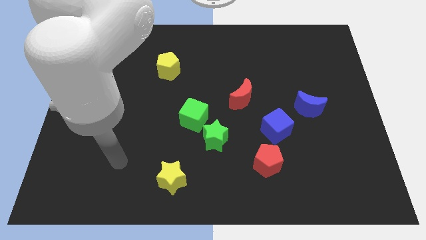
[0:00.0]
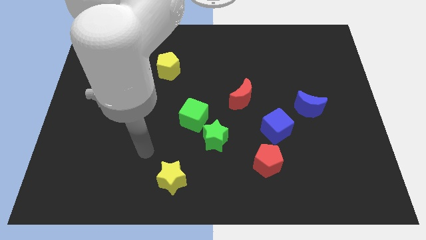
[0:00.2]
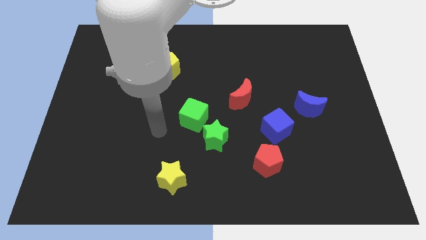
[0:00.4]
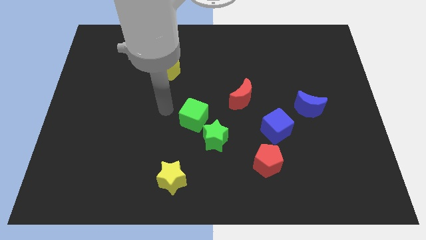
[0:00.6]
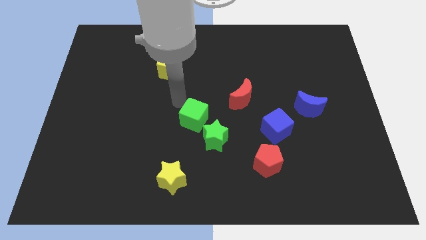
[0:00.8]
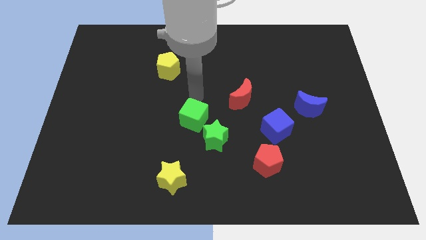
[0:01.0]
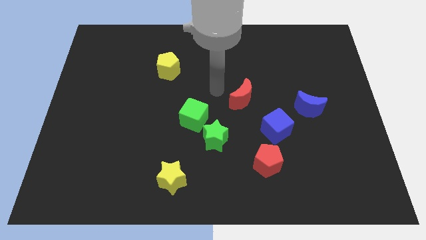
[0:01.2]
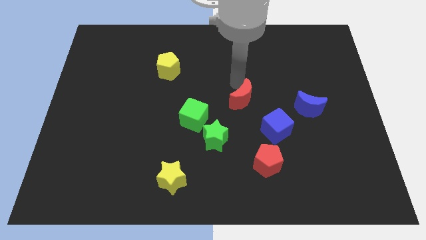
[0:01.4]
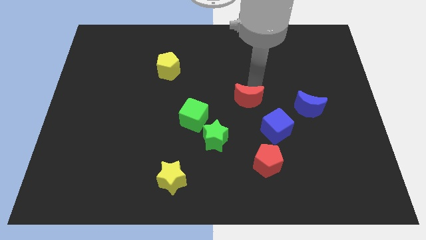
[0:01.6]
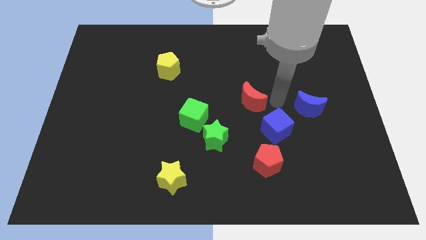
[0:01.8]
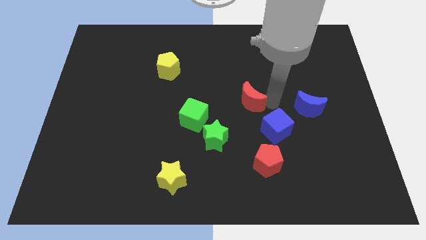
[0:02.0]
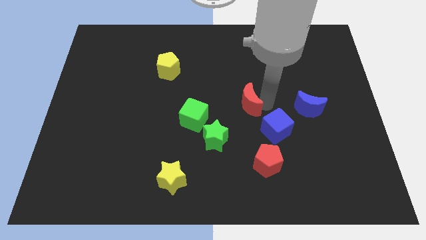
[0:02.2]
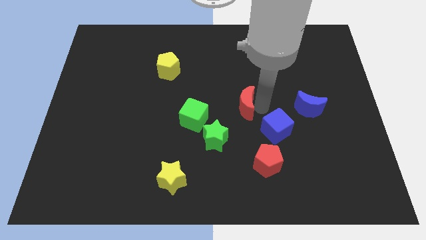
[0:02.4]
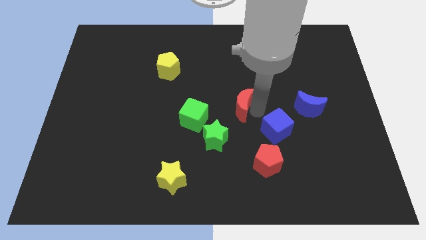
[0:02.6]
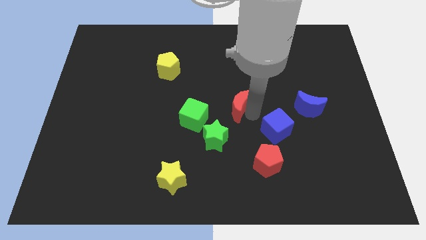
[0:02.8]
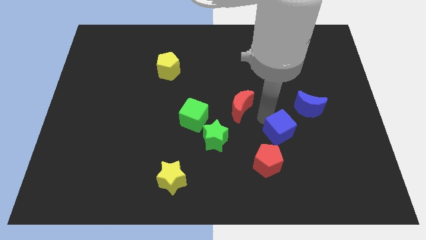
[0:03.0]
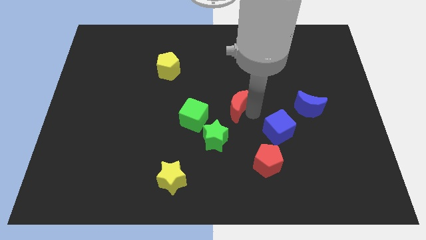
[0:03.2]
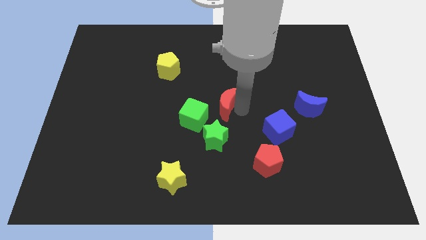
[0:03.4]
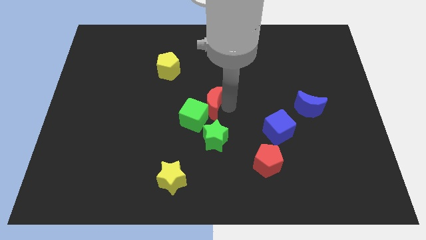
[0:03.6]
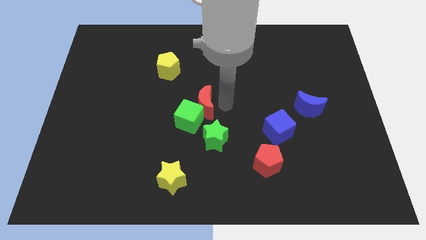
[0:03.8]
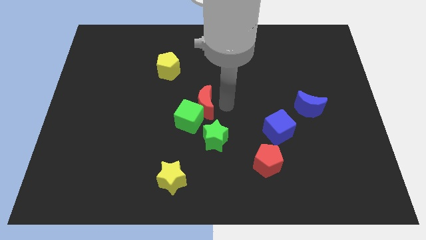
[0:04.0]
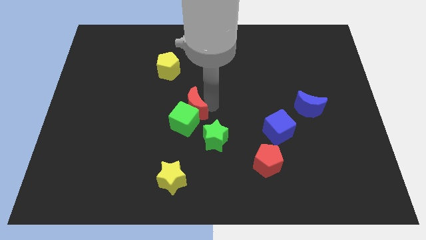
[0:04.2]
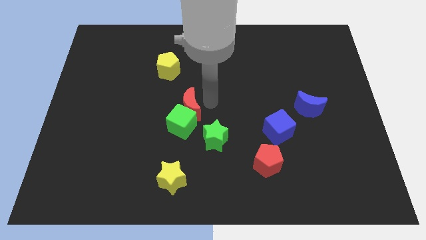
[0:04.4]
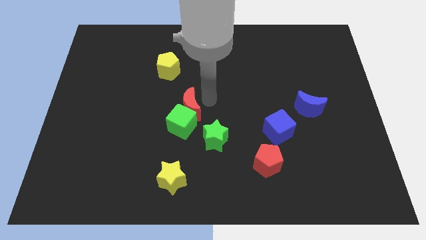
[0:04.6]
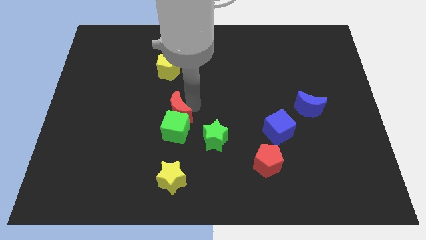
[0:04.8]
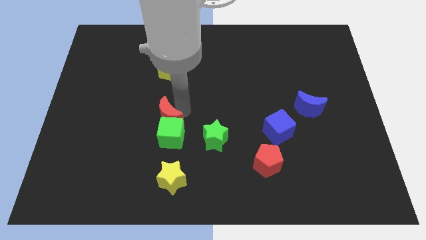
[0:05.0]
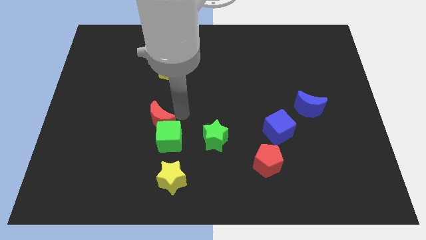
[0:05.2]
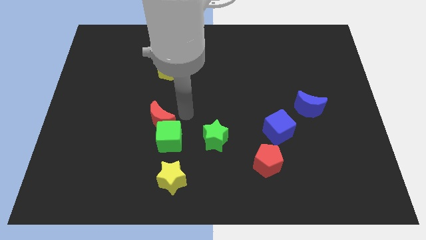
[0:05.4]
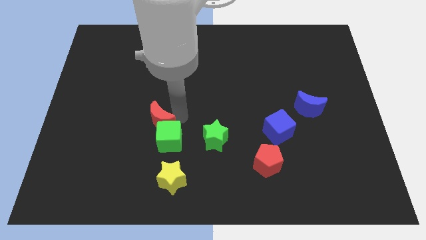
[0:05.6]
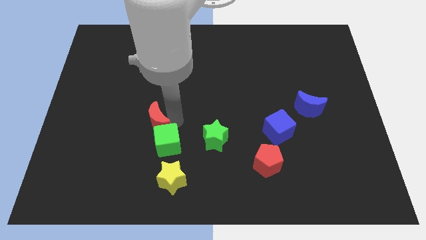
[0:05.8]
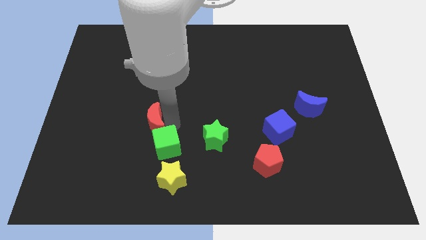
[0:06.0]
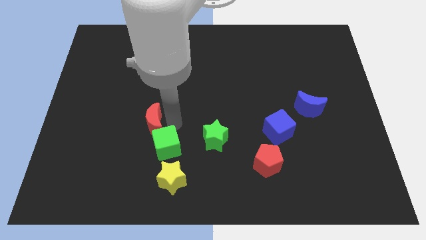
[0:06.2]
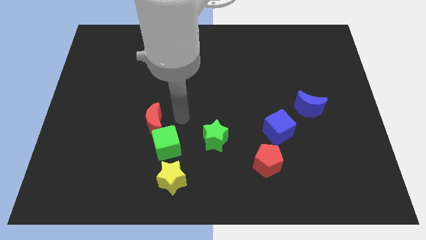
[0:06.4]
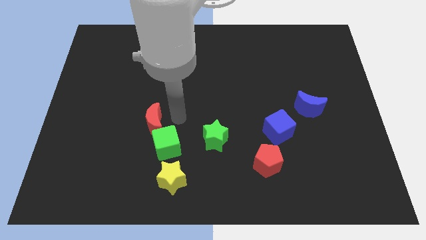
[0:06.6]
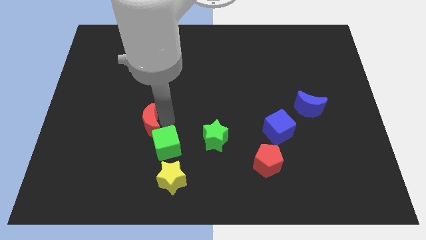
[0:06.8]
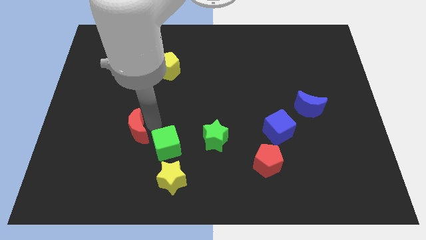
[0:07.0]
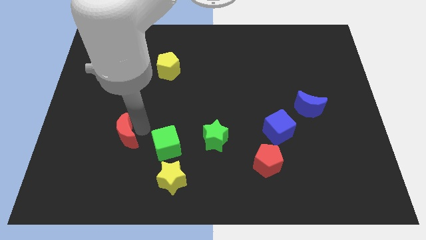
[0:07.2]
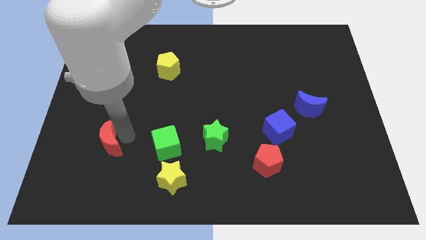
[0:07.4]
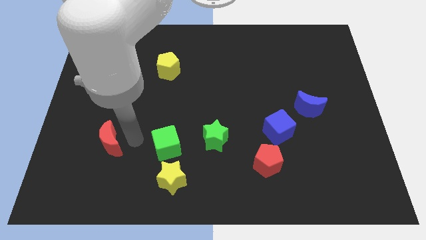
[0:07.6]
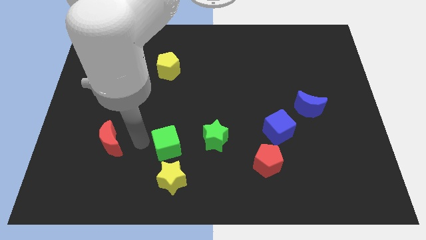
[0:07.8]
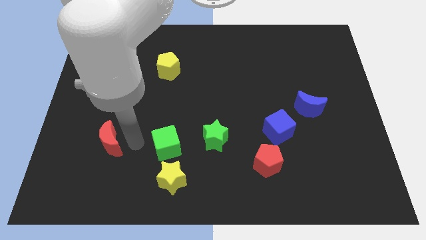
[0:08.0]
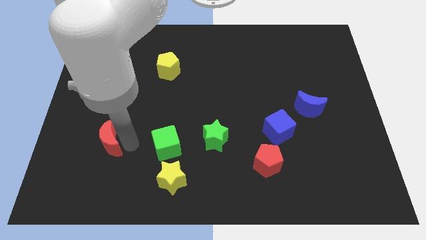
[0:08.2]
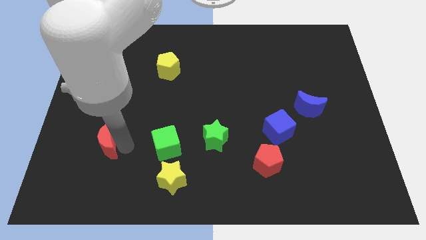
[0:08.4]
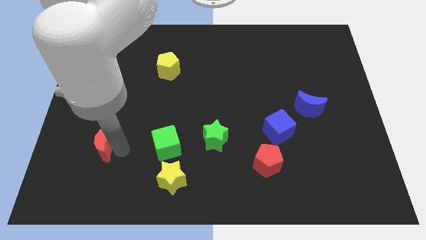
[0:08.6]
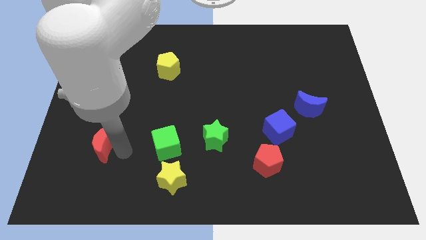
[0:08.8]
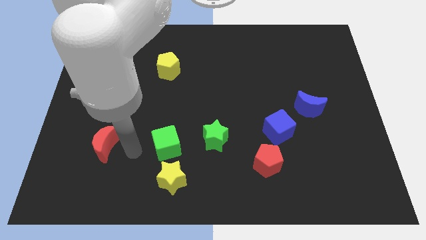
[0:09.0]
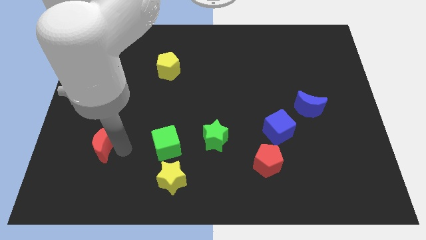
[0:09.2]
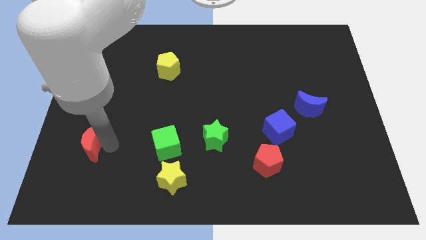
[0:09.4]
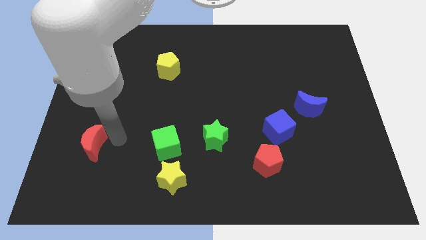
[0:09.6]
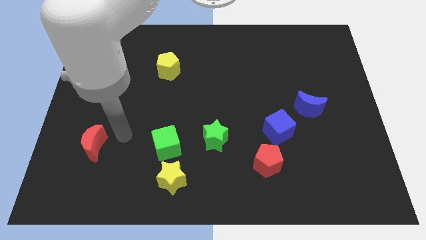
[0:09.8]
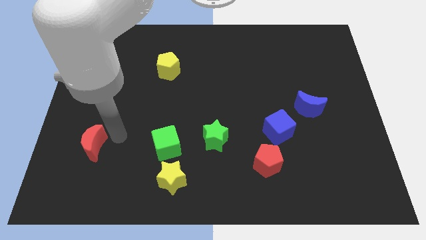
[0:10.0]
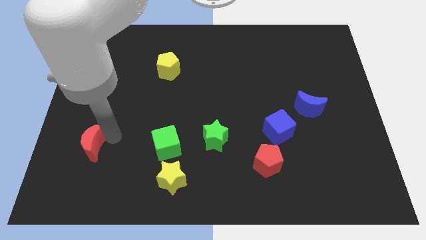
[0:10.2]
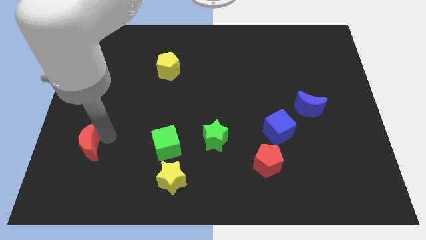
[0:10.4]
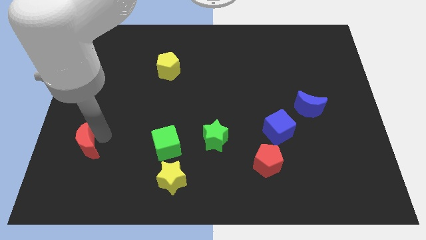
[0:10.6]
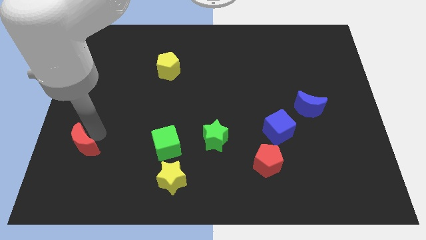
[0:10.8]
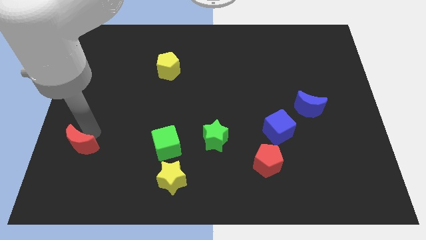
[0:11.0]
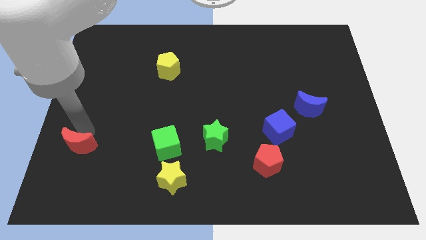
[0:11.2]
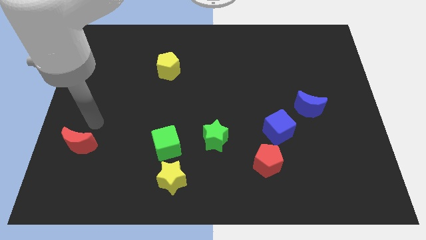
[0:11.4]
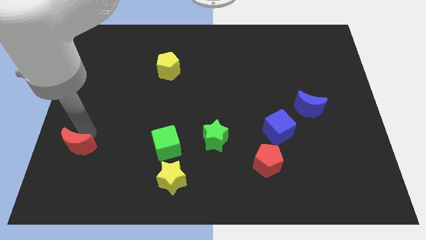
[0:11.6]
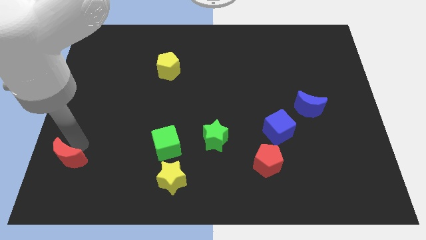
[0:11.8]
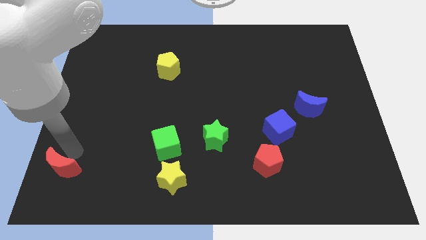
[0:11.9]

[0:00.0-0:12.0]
push the red moon to the lower left corner

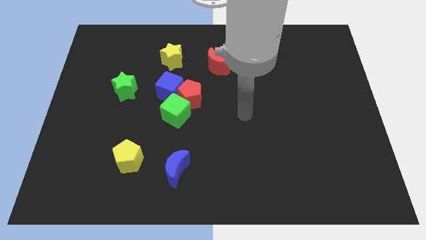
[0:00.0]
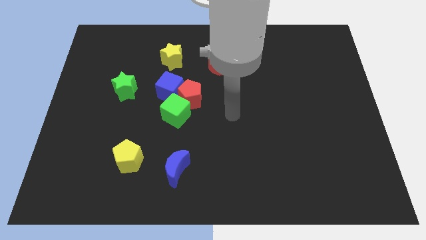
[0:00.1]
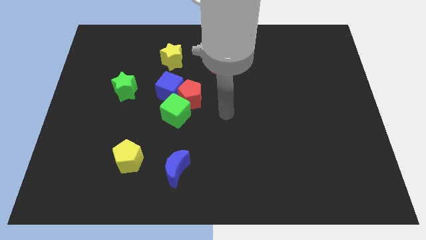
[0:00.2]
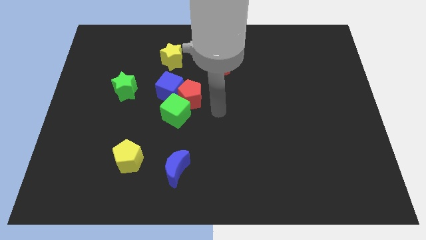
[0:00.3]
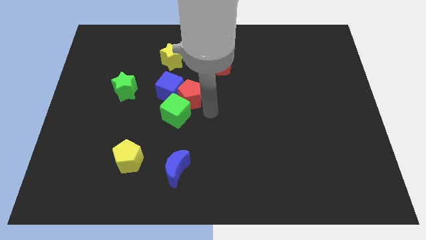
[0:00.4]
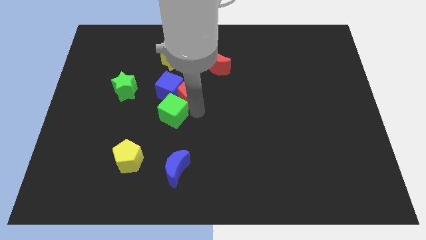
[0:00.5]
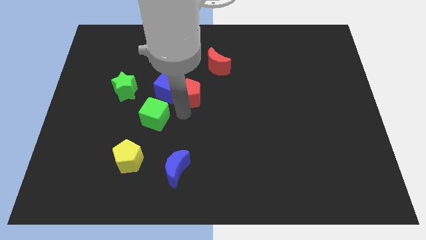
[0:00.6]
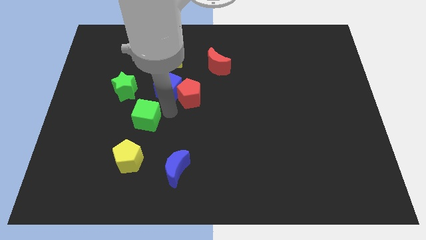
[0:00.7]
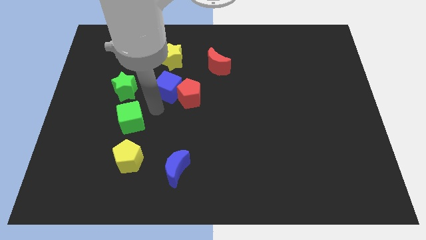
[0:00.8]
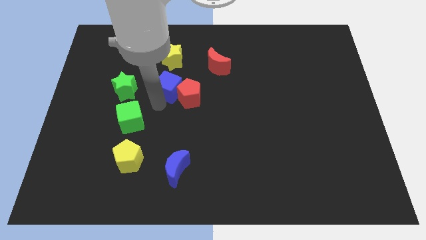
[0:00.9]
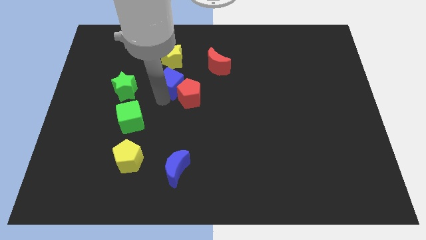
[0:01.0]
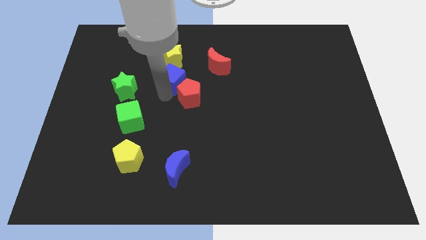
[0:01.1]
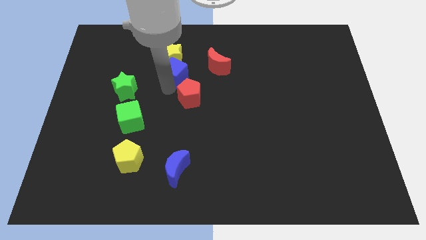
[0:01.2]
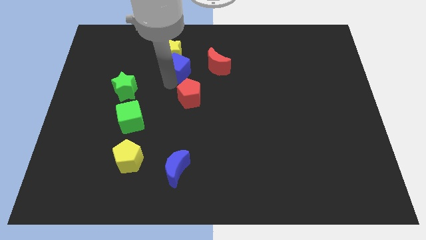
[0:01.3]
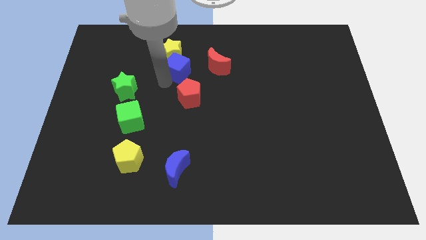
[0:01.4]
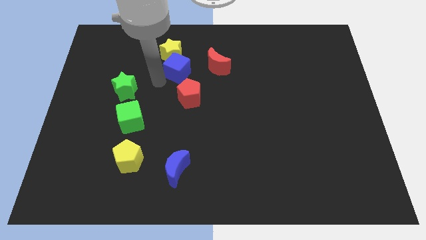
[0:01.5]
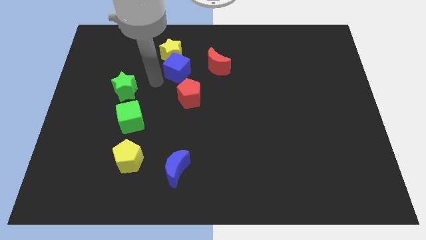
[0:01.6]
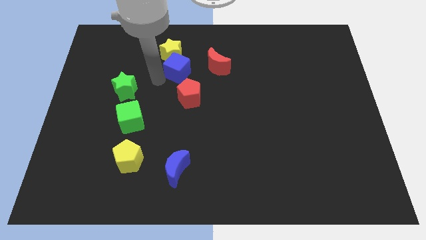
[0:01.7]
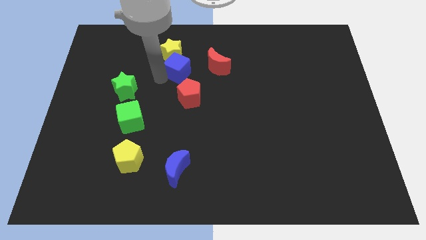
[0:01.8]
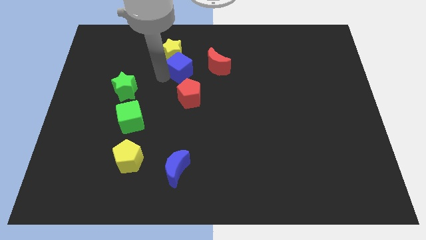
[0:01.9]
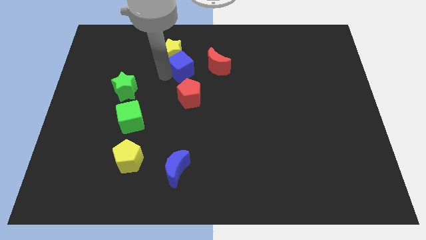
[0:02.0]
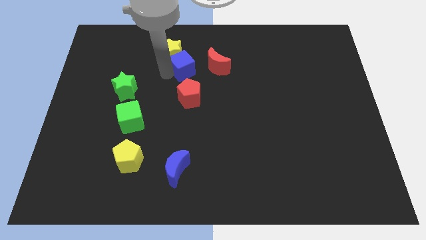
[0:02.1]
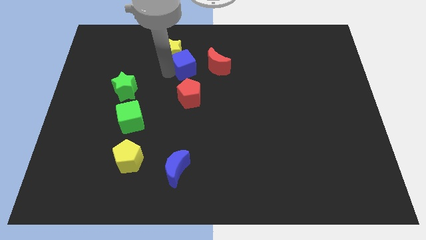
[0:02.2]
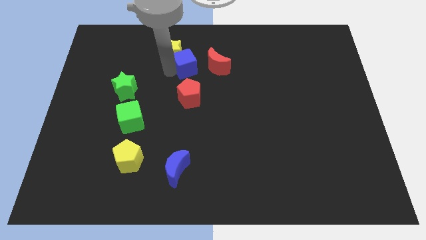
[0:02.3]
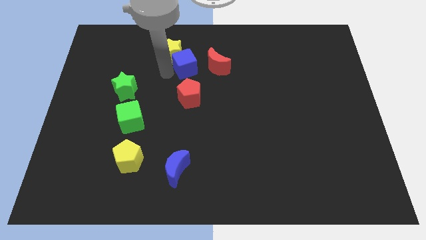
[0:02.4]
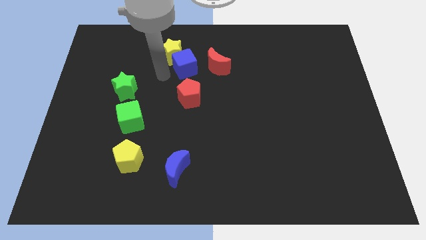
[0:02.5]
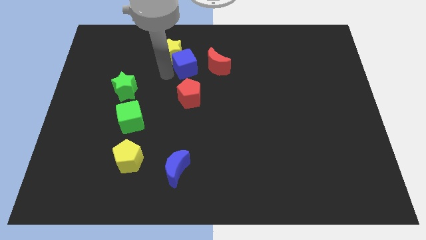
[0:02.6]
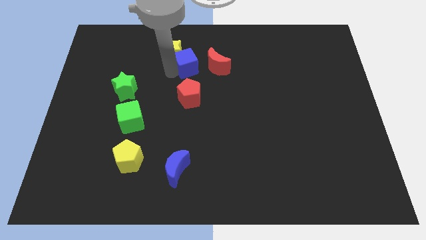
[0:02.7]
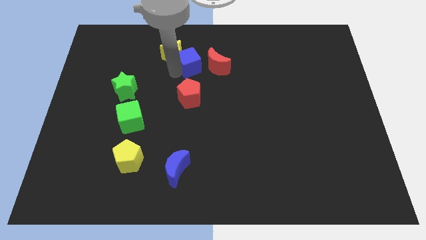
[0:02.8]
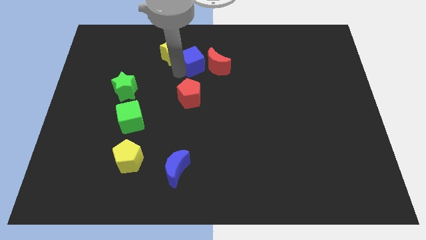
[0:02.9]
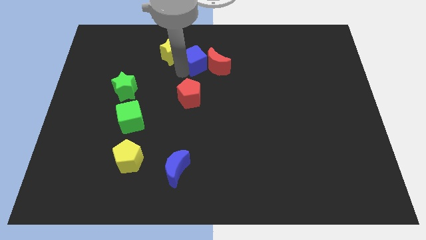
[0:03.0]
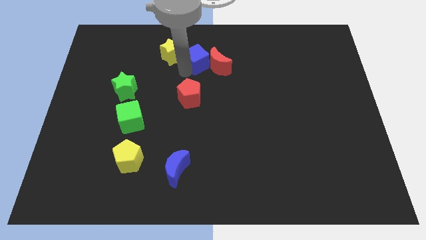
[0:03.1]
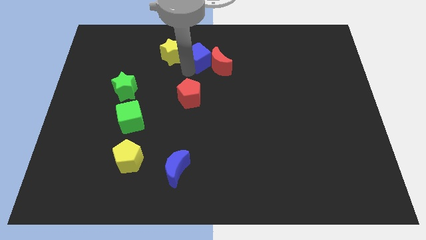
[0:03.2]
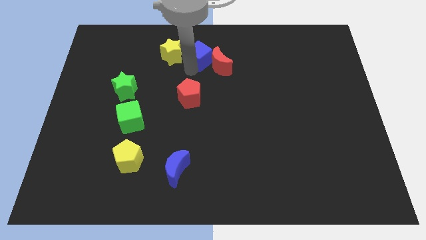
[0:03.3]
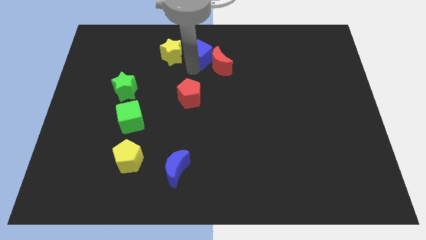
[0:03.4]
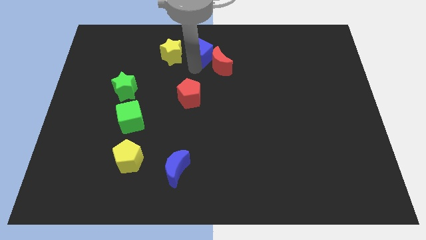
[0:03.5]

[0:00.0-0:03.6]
move the blue cube to the top
